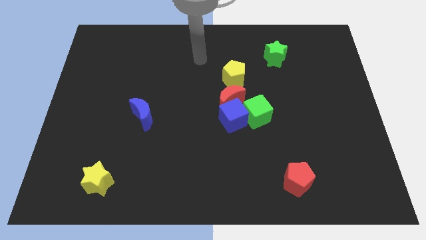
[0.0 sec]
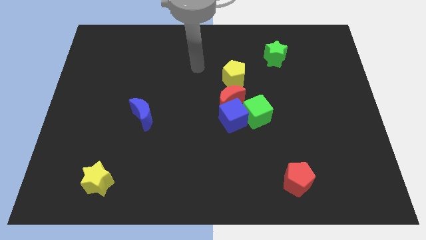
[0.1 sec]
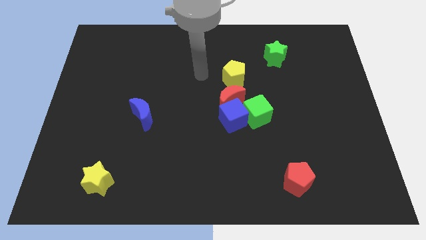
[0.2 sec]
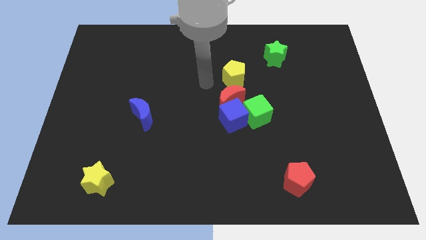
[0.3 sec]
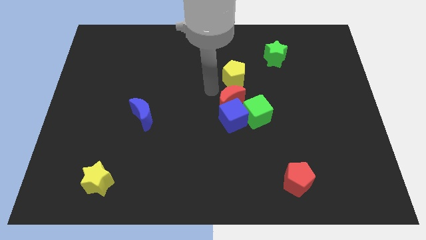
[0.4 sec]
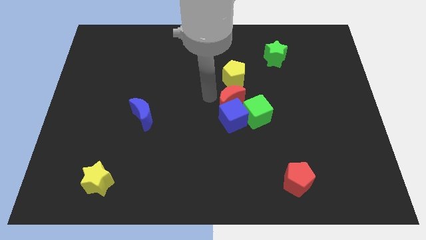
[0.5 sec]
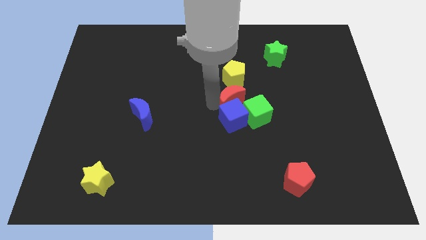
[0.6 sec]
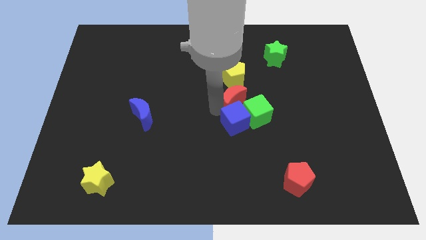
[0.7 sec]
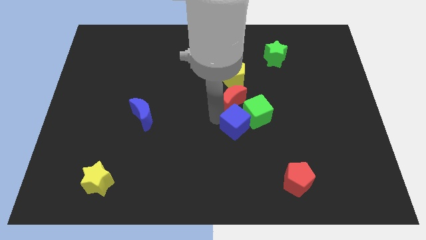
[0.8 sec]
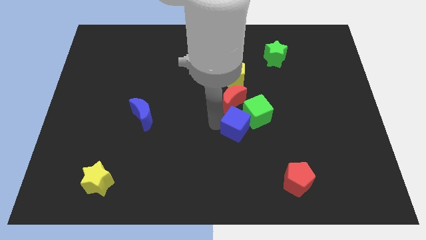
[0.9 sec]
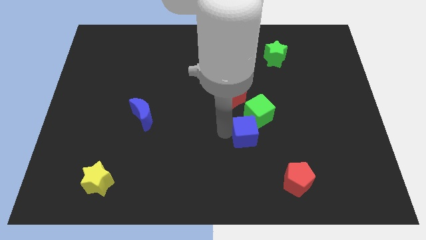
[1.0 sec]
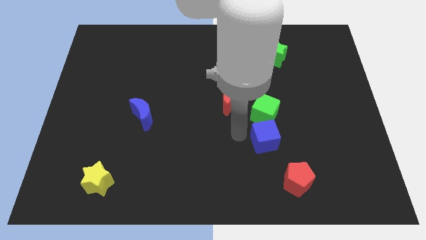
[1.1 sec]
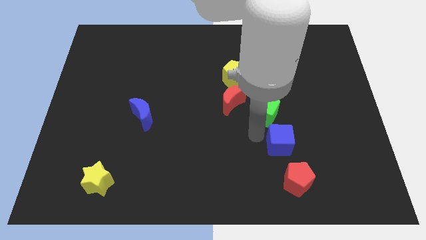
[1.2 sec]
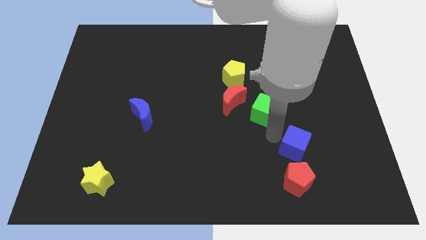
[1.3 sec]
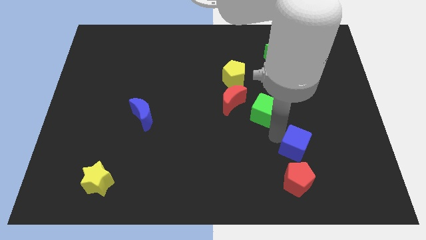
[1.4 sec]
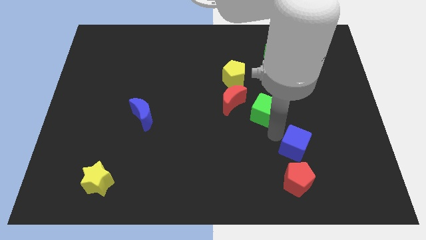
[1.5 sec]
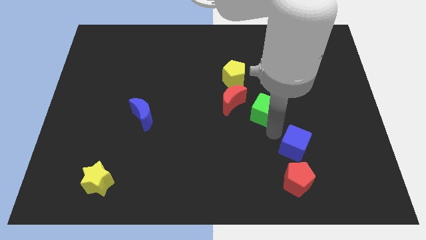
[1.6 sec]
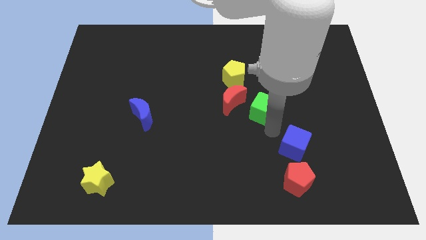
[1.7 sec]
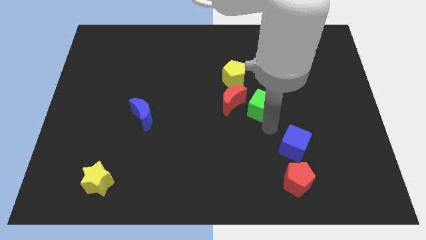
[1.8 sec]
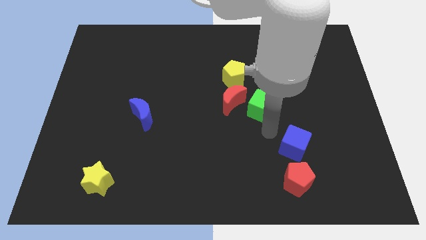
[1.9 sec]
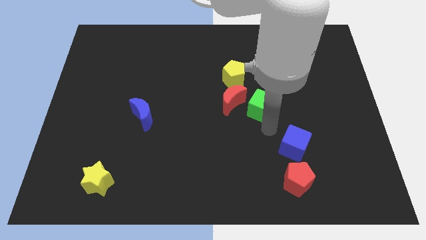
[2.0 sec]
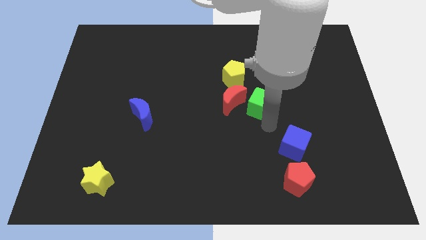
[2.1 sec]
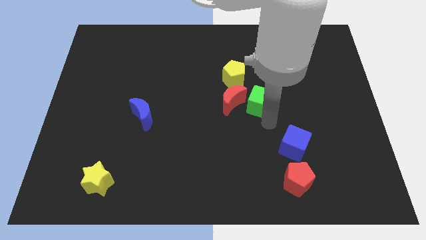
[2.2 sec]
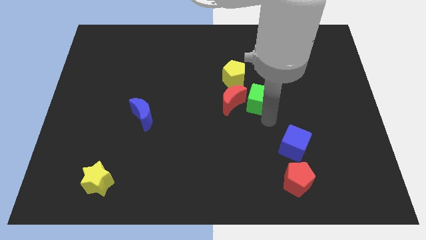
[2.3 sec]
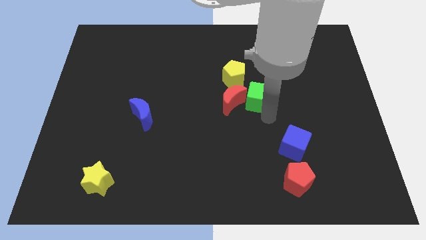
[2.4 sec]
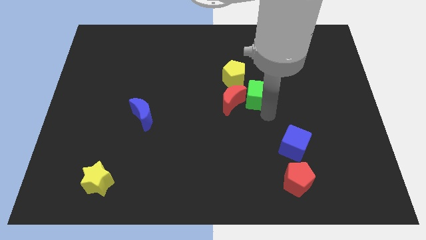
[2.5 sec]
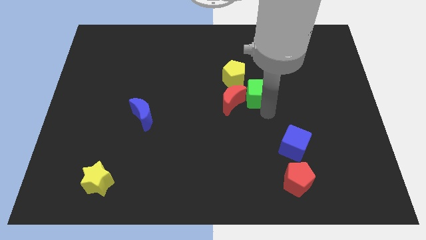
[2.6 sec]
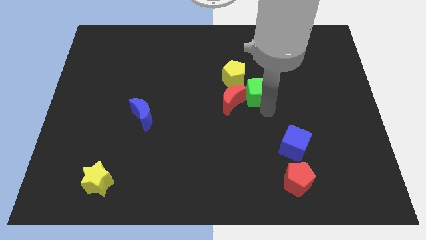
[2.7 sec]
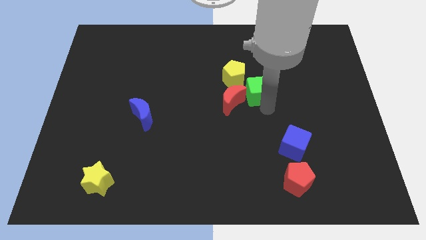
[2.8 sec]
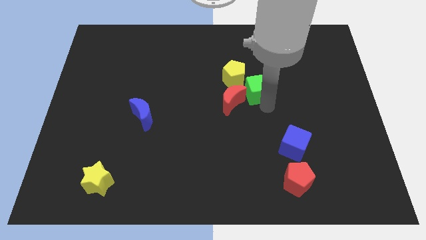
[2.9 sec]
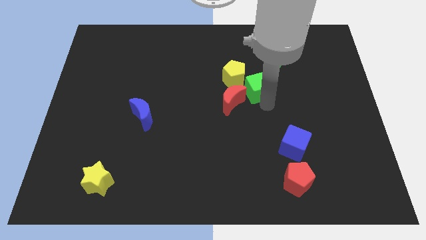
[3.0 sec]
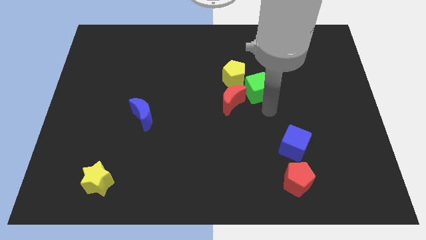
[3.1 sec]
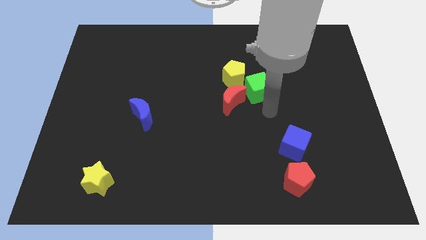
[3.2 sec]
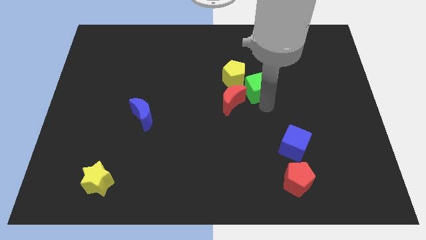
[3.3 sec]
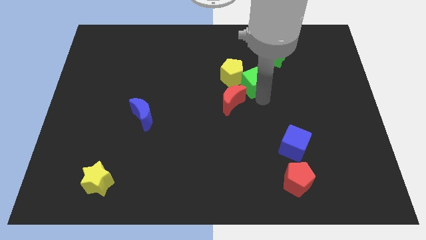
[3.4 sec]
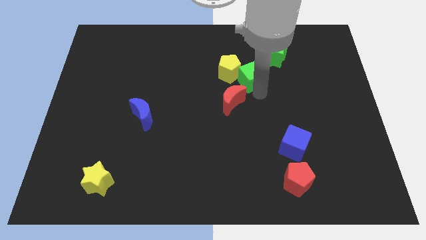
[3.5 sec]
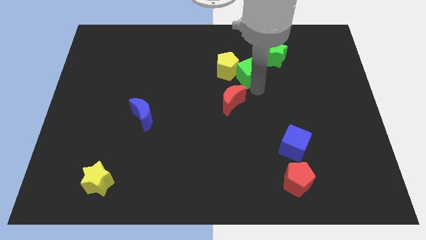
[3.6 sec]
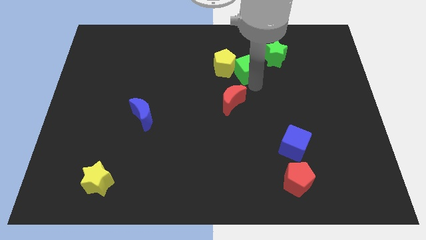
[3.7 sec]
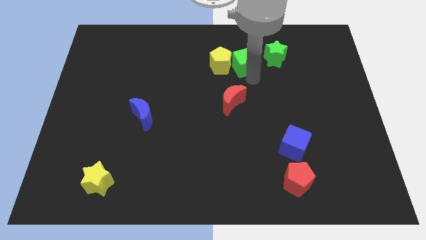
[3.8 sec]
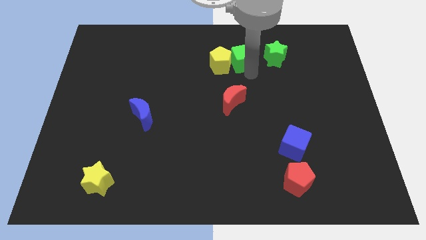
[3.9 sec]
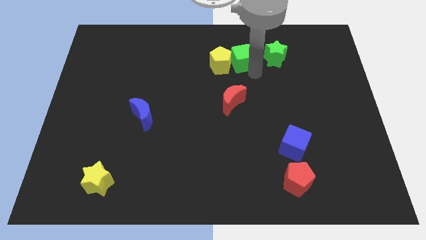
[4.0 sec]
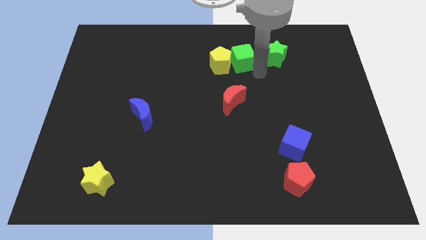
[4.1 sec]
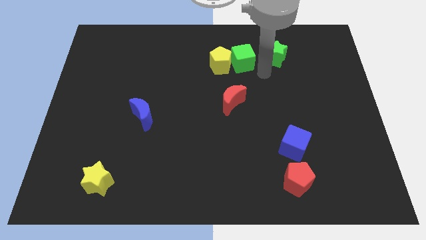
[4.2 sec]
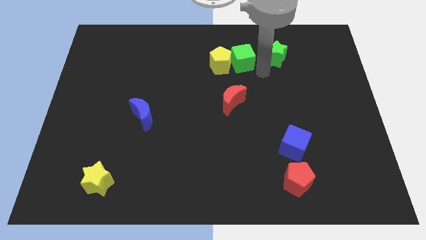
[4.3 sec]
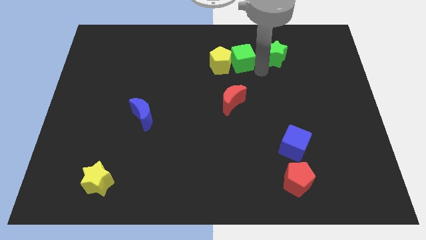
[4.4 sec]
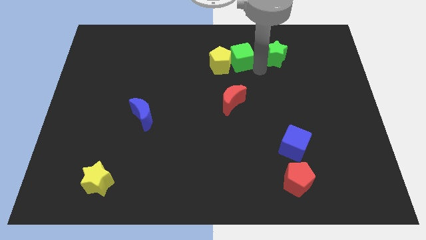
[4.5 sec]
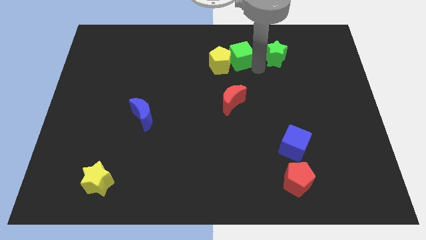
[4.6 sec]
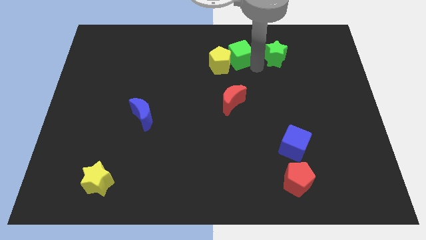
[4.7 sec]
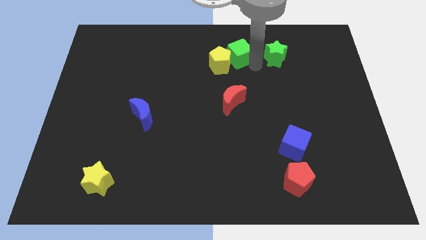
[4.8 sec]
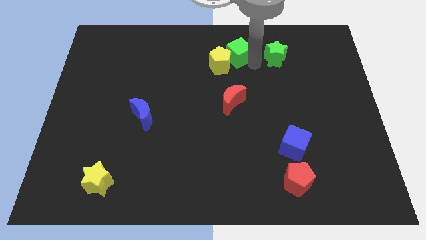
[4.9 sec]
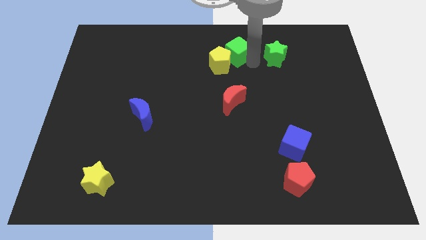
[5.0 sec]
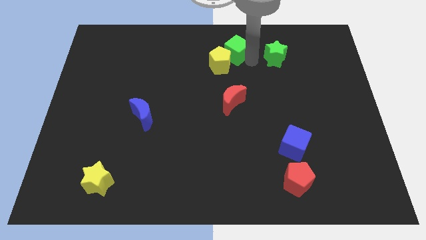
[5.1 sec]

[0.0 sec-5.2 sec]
push the green cube to the top side

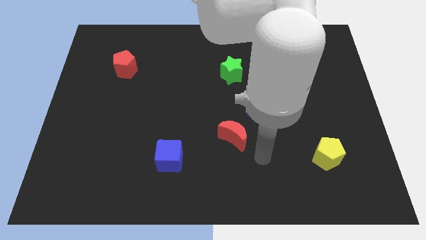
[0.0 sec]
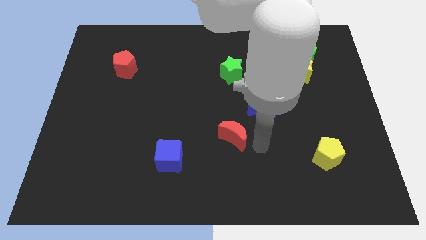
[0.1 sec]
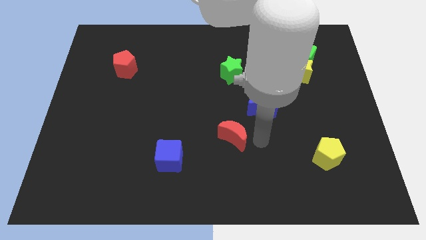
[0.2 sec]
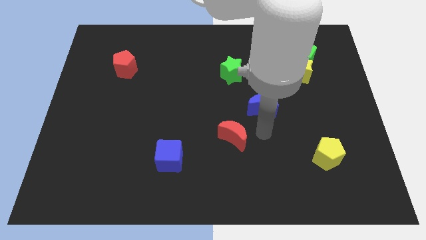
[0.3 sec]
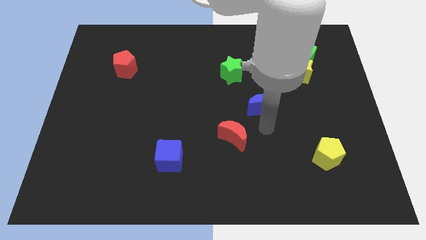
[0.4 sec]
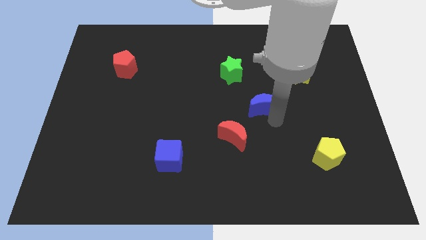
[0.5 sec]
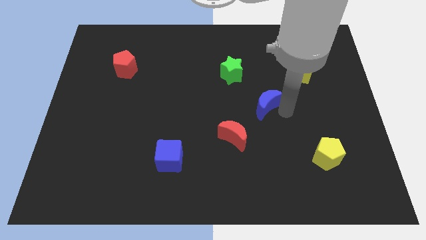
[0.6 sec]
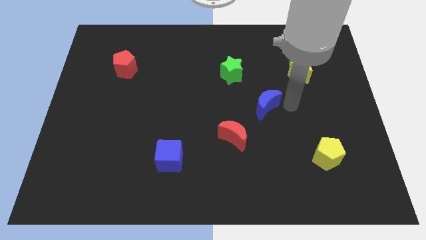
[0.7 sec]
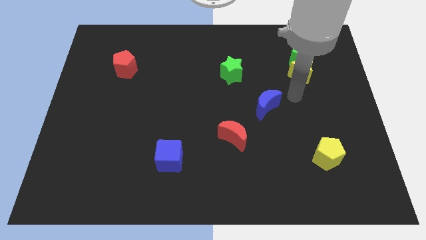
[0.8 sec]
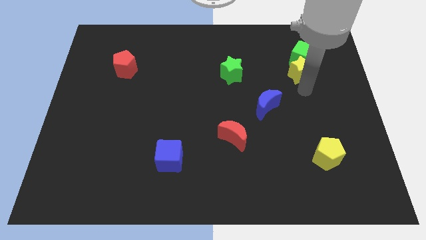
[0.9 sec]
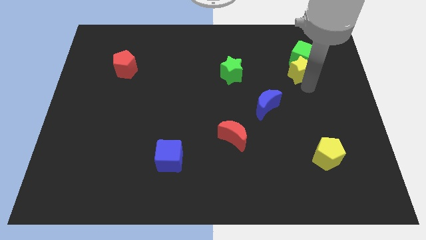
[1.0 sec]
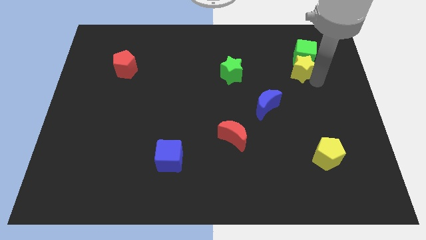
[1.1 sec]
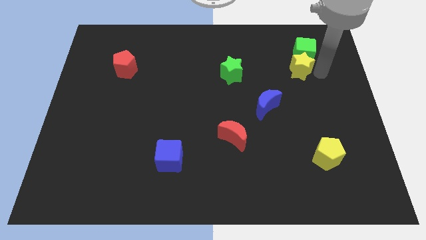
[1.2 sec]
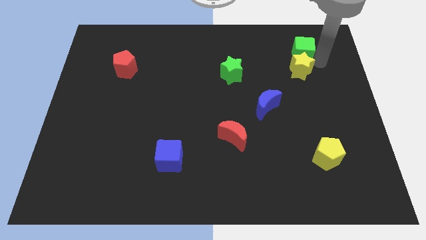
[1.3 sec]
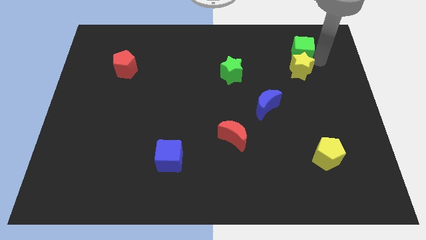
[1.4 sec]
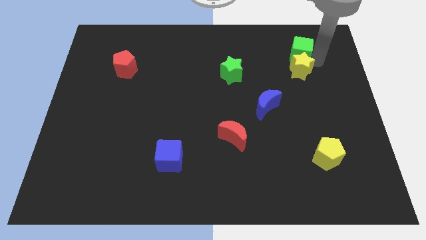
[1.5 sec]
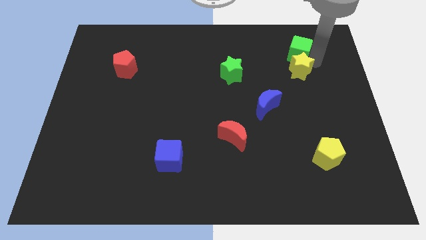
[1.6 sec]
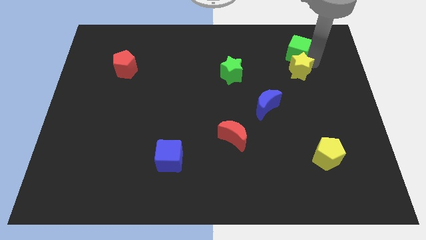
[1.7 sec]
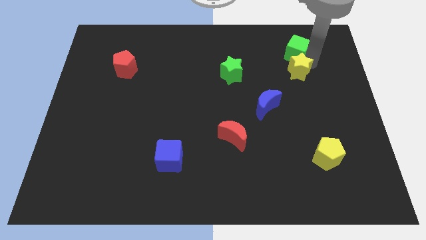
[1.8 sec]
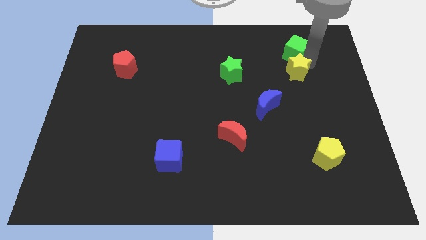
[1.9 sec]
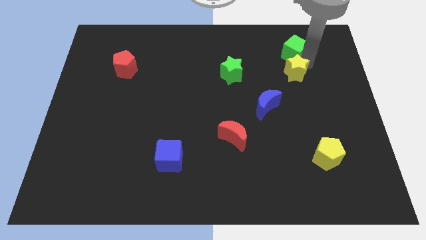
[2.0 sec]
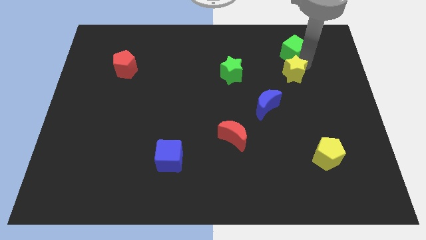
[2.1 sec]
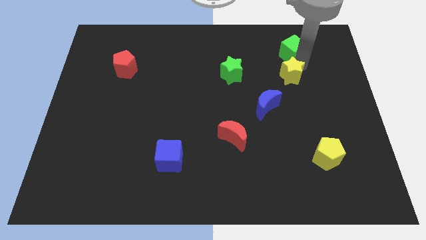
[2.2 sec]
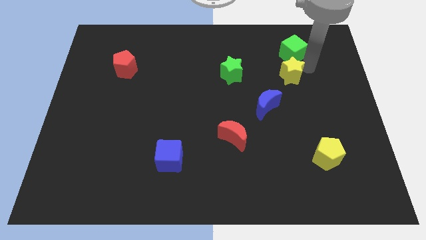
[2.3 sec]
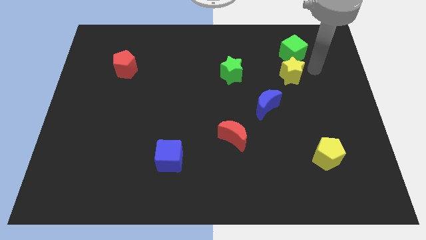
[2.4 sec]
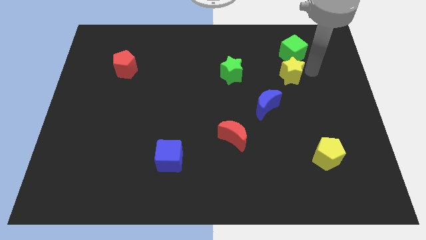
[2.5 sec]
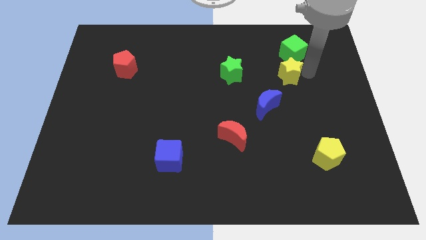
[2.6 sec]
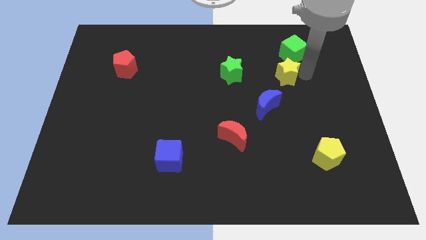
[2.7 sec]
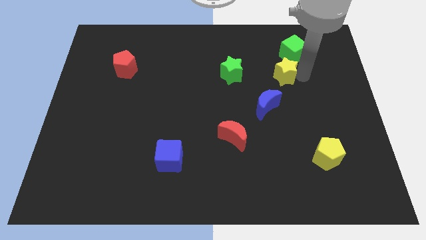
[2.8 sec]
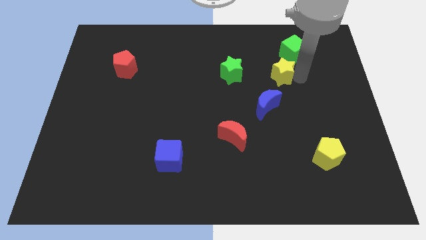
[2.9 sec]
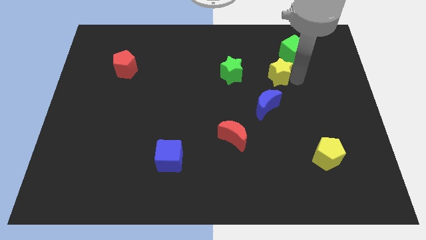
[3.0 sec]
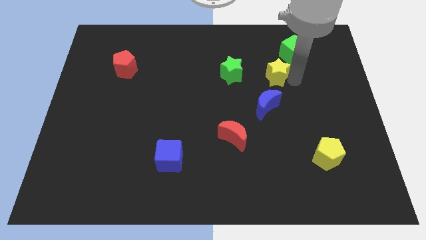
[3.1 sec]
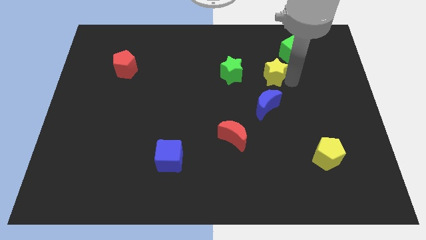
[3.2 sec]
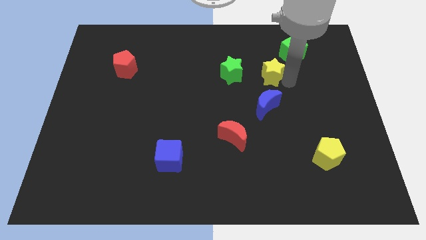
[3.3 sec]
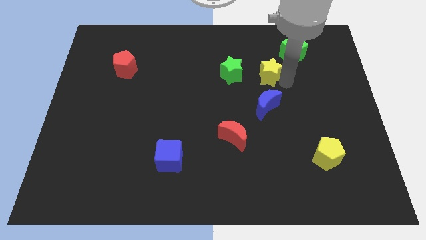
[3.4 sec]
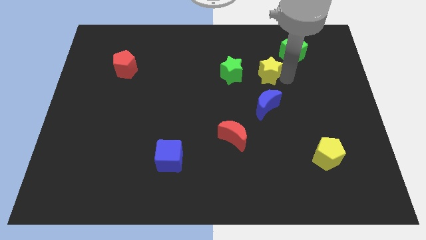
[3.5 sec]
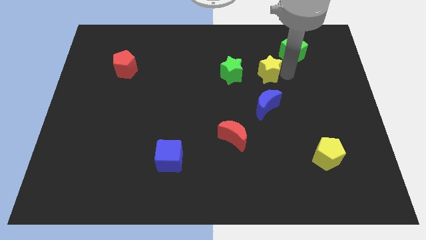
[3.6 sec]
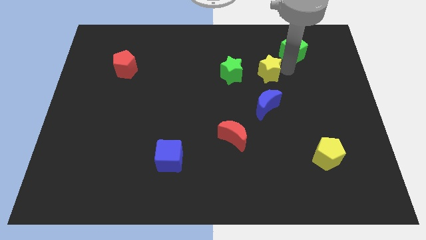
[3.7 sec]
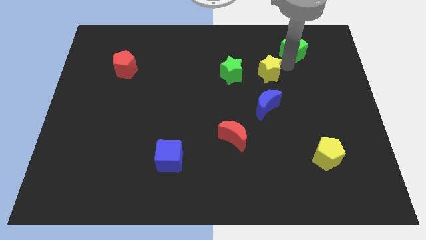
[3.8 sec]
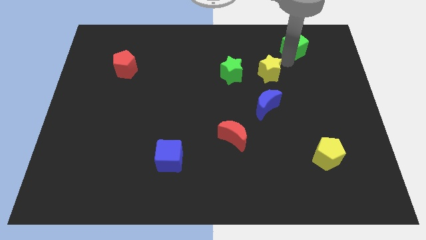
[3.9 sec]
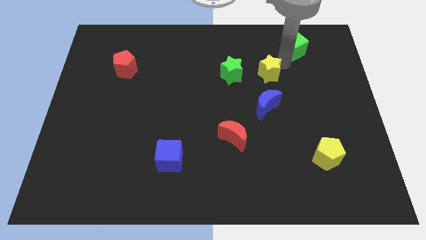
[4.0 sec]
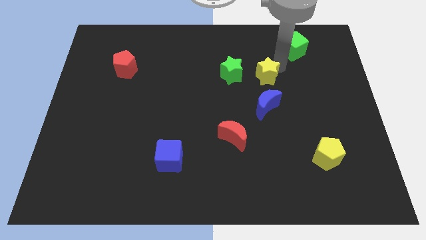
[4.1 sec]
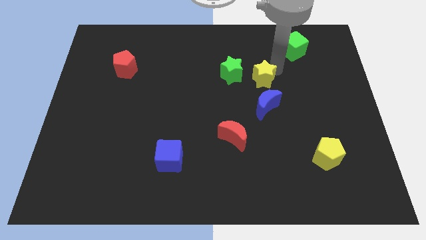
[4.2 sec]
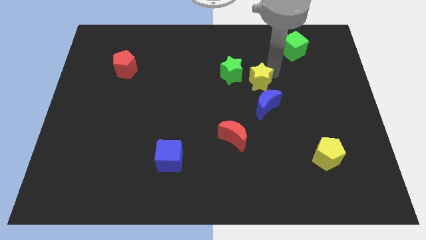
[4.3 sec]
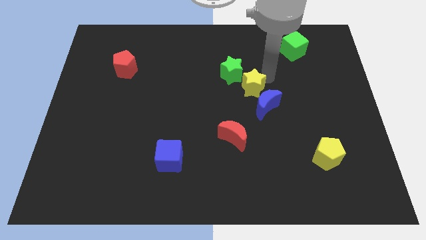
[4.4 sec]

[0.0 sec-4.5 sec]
push the yellow star to the center of the board
